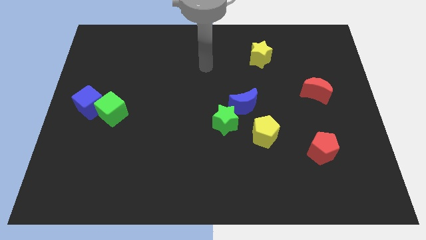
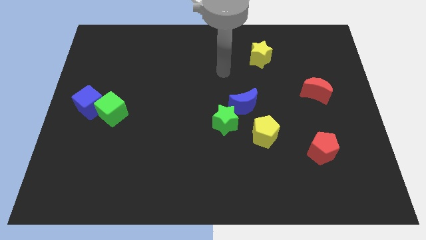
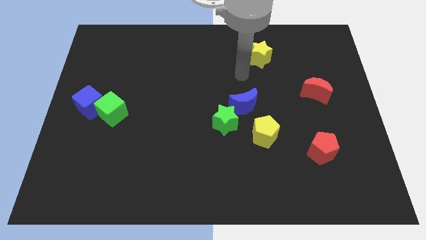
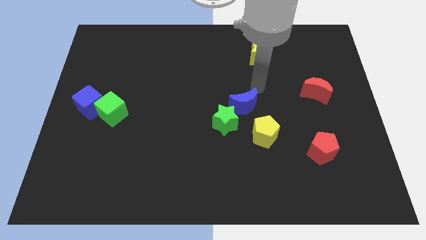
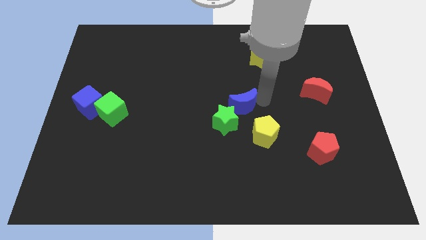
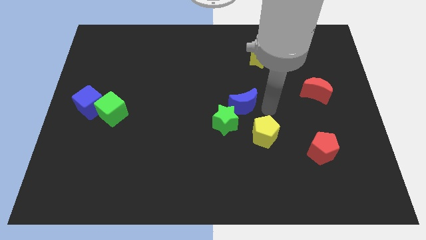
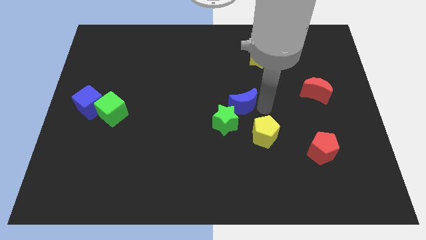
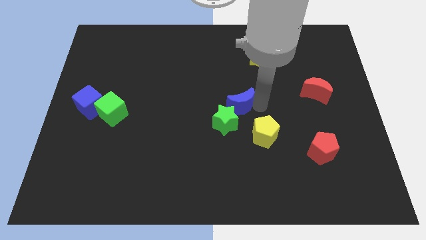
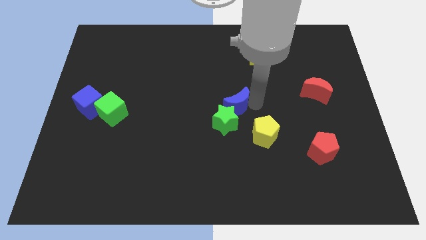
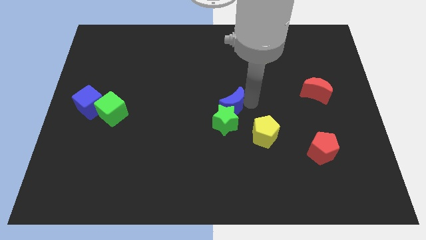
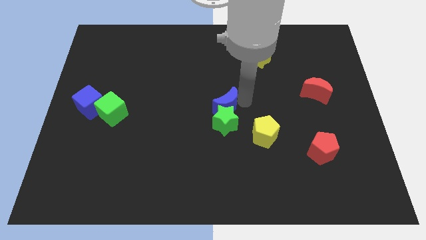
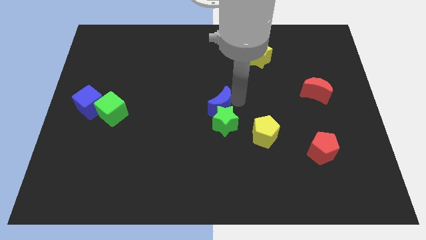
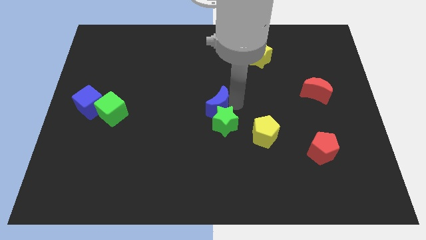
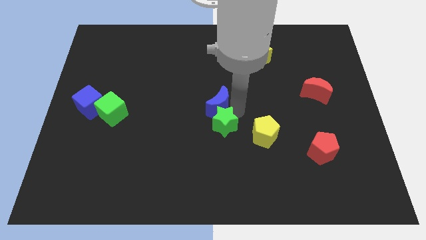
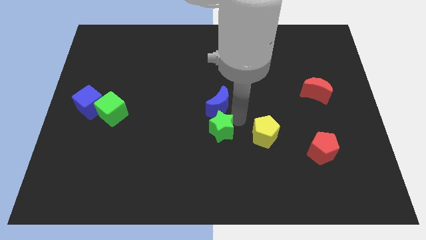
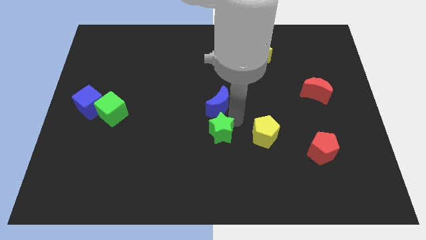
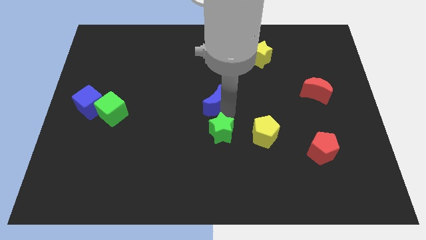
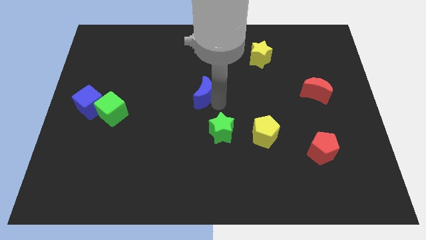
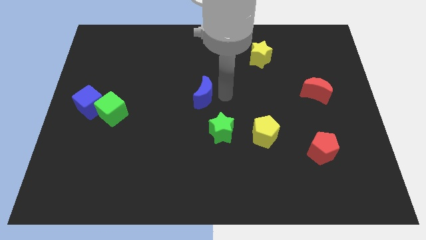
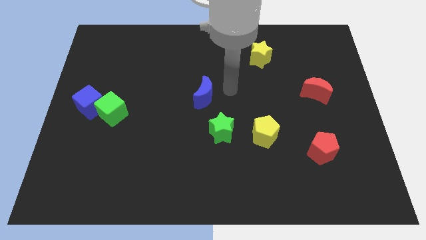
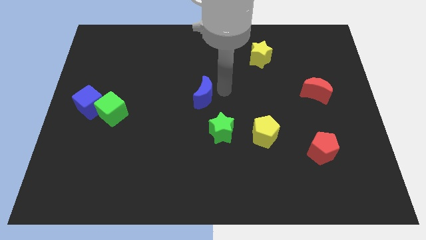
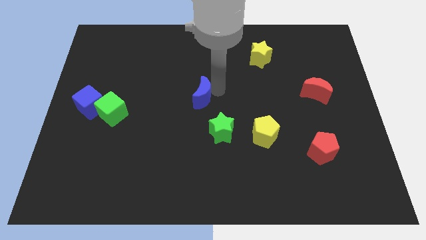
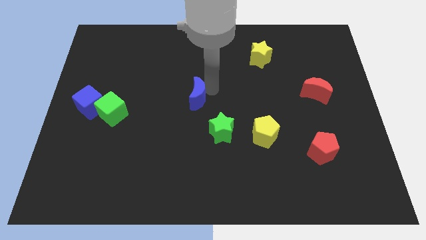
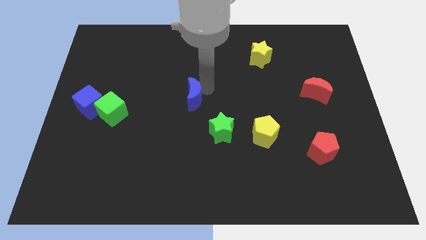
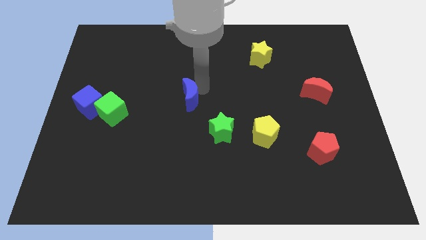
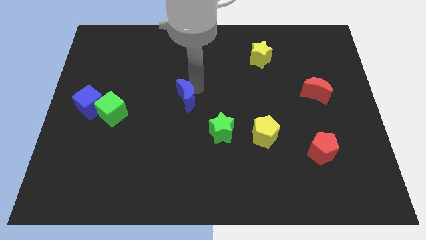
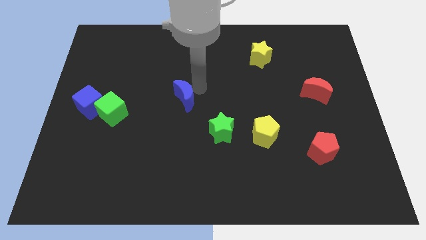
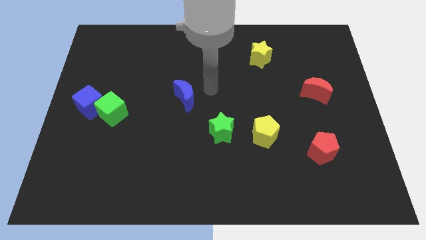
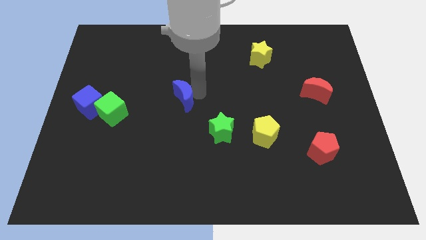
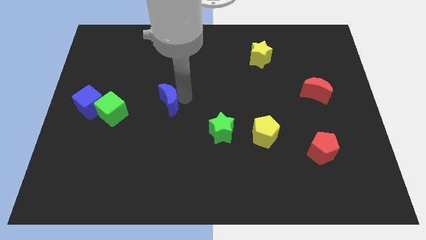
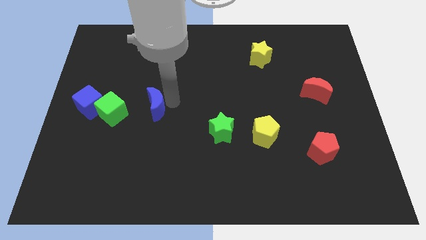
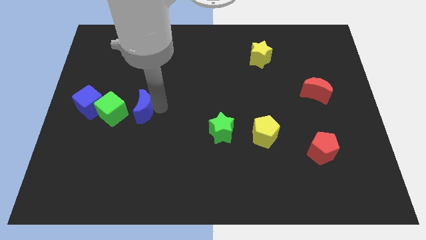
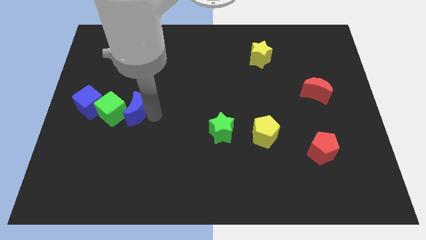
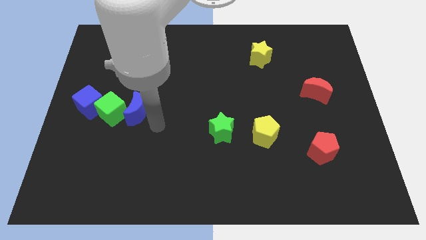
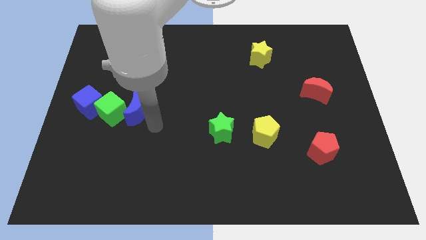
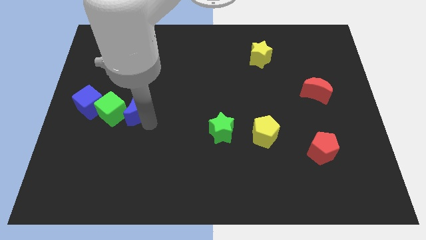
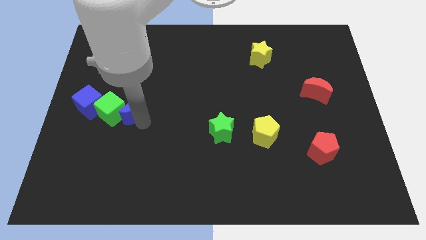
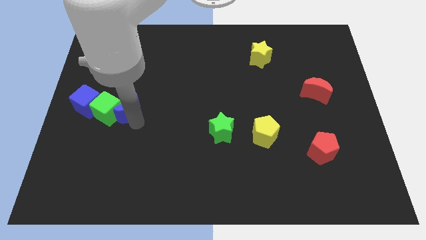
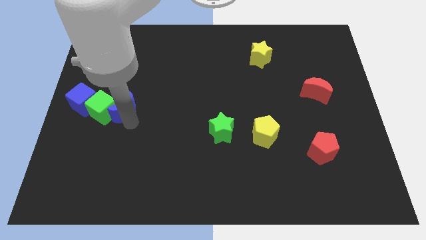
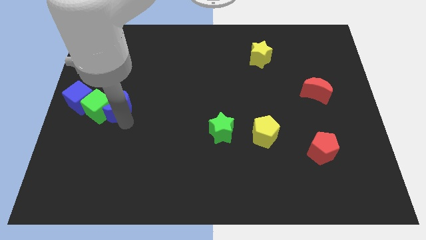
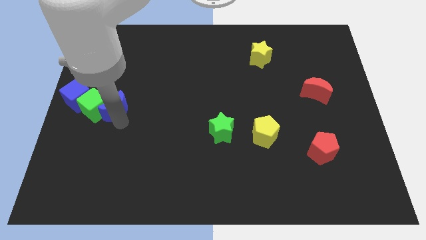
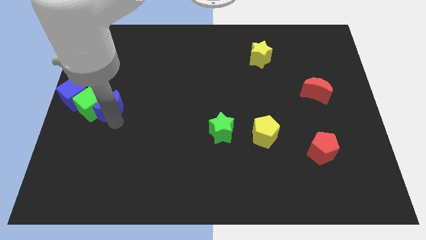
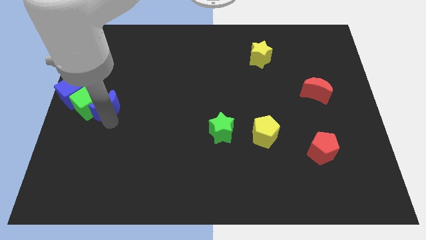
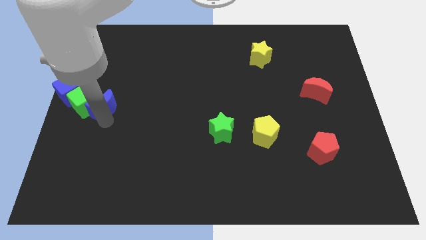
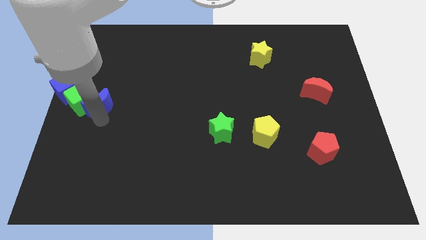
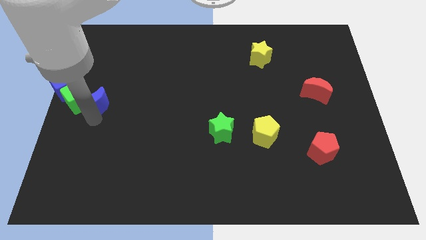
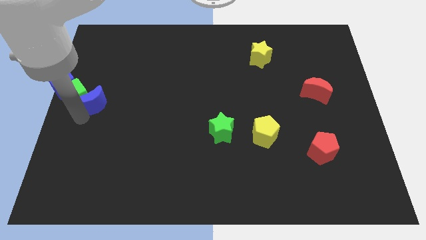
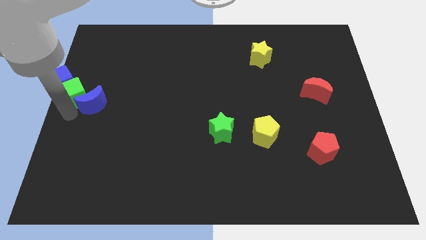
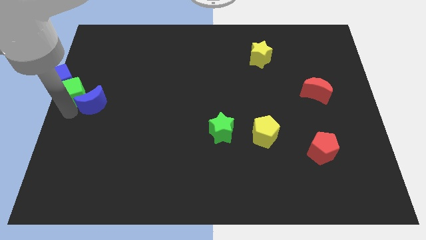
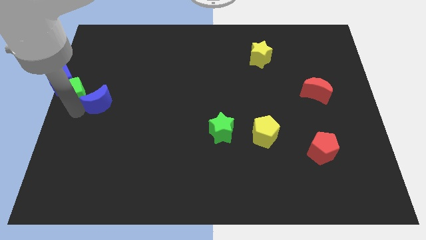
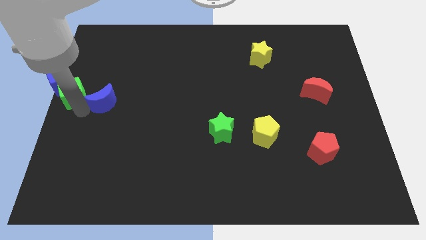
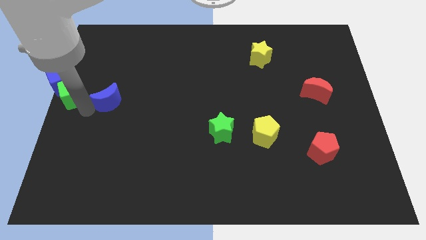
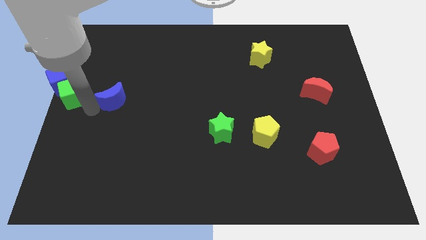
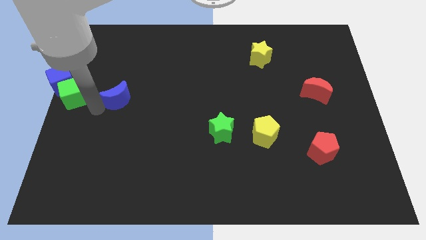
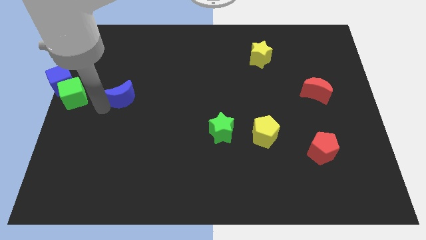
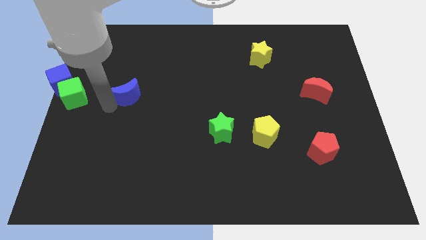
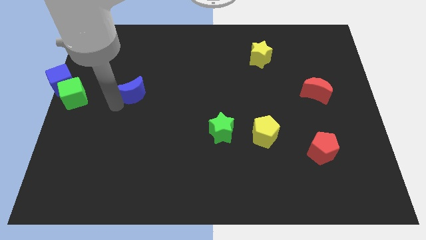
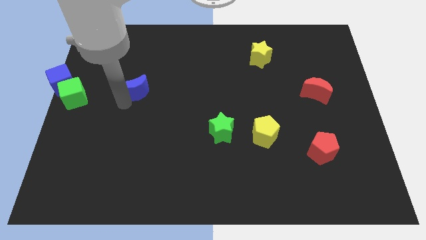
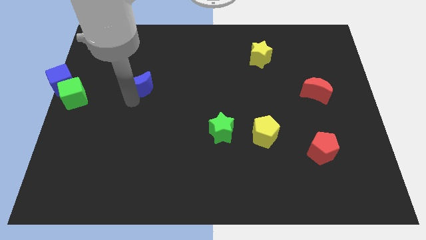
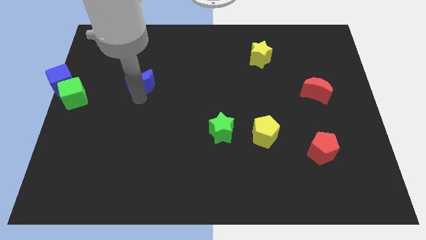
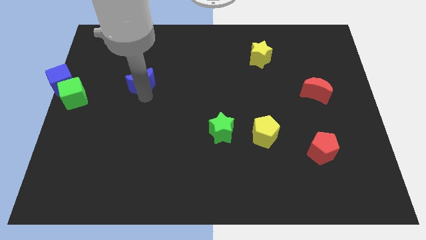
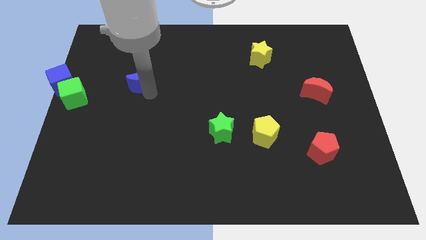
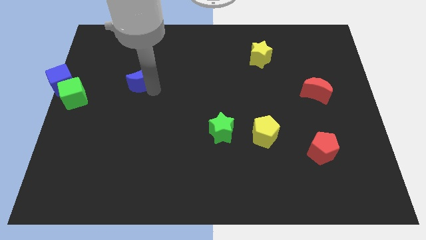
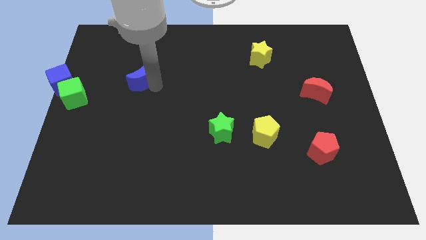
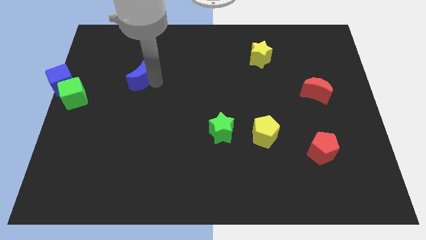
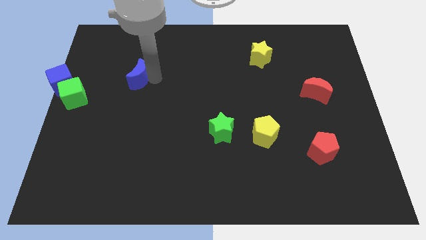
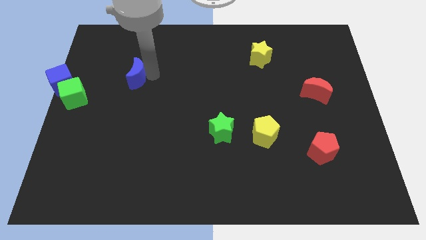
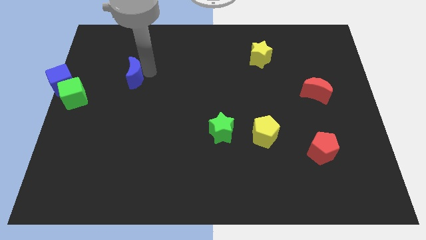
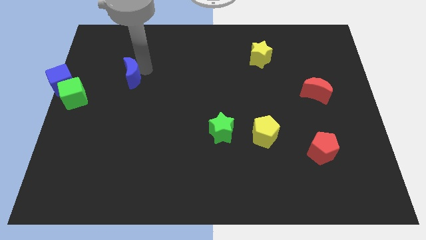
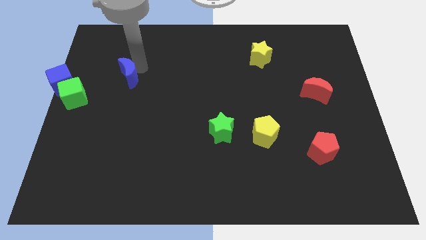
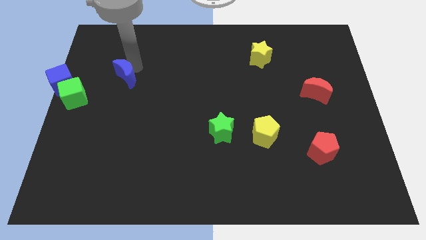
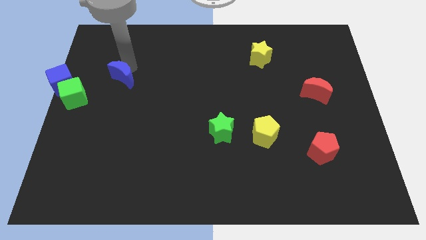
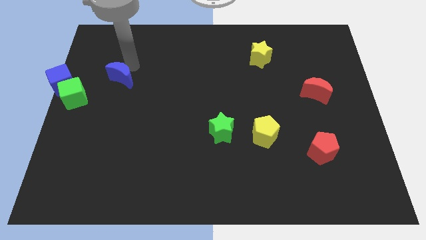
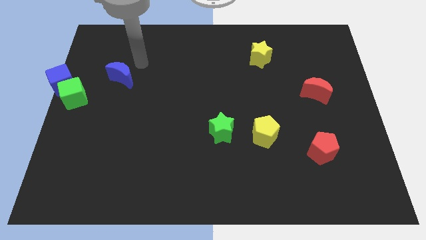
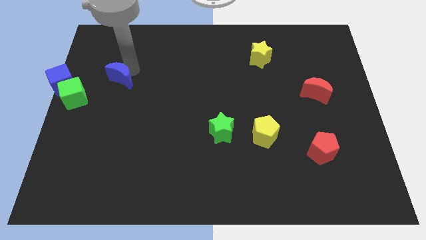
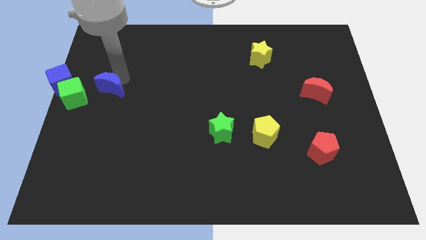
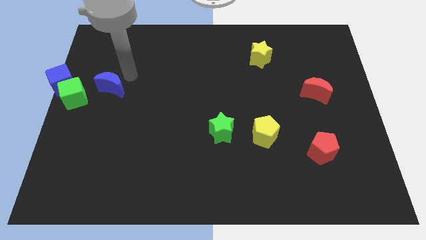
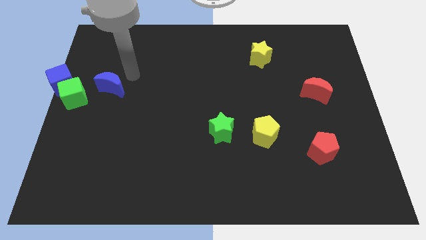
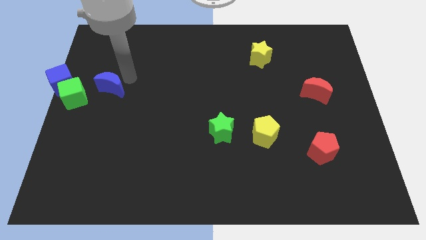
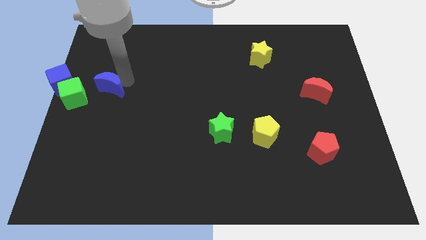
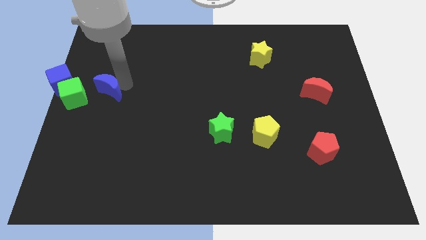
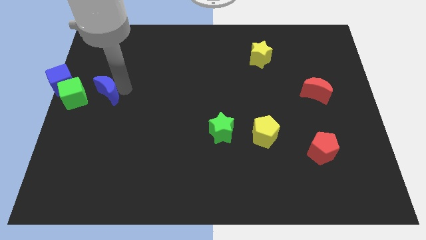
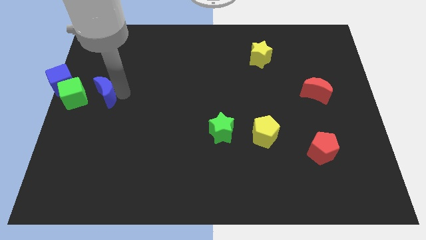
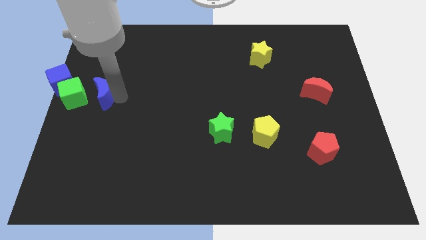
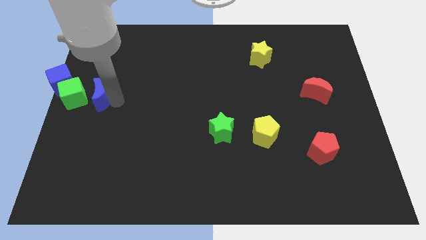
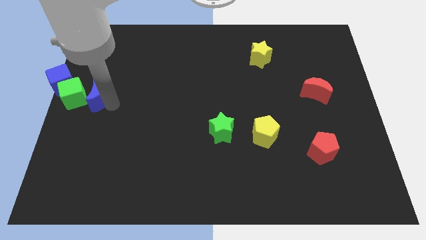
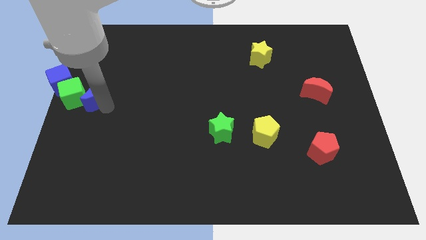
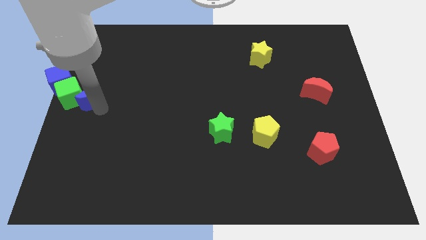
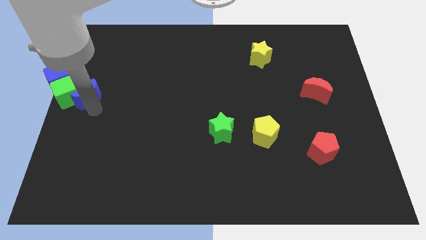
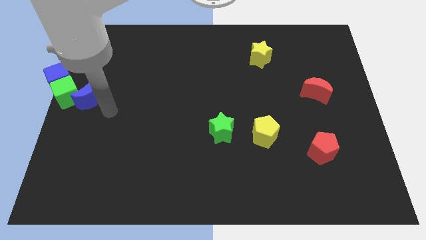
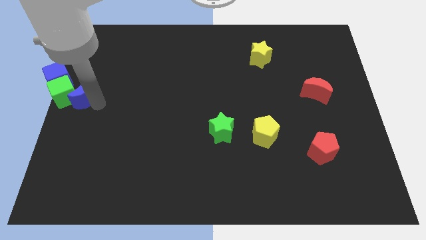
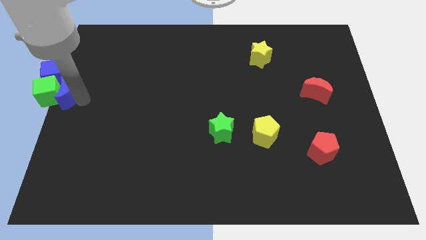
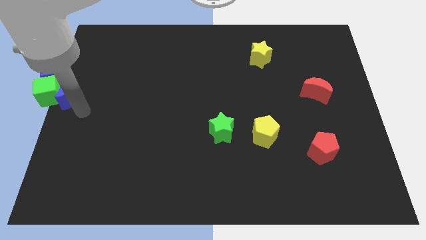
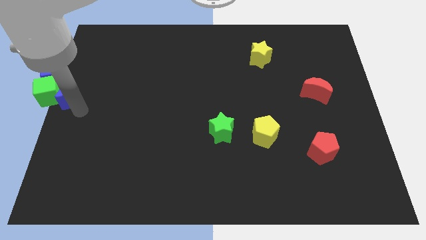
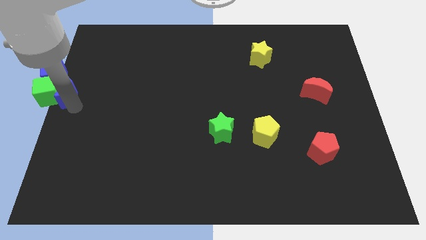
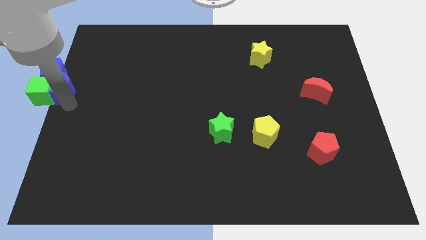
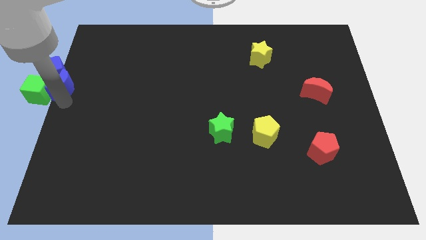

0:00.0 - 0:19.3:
move the blue moon next to the blue cube
